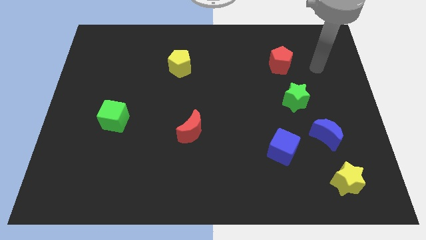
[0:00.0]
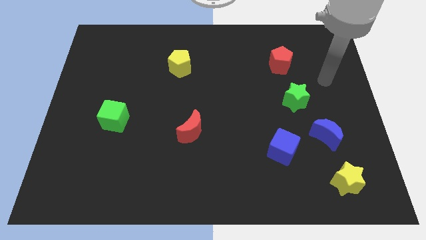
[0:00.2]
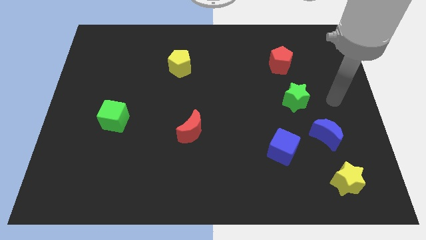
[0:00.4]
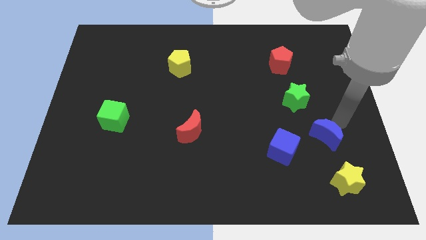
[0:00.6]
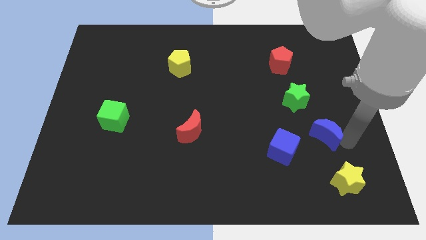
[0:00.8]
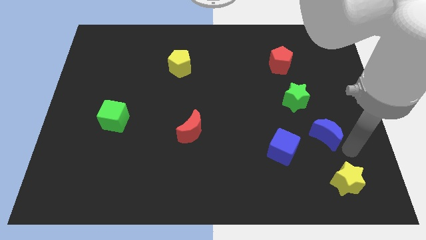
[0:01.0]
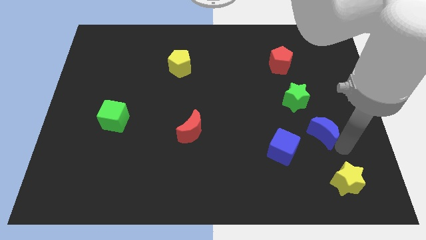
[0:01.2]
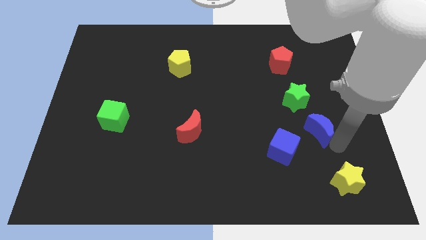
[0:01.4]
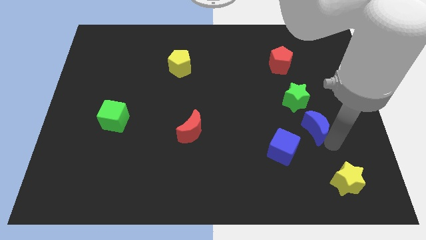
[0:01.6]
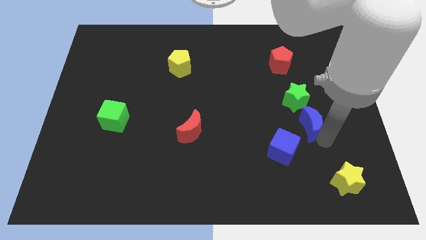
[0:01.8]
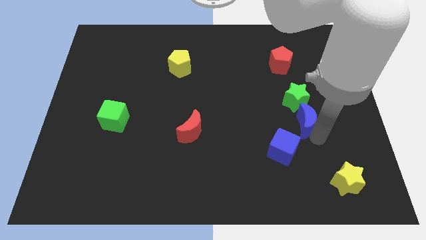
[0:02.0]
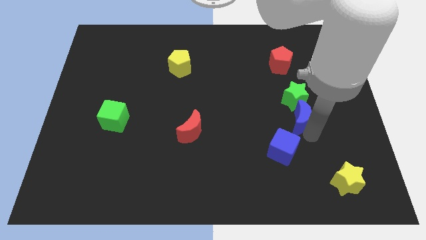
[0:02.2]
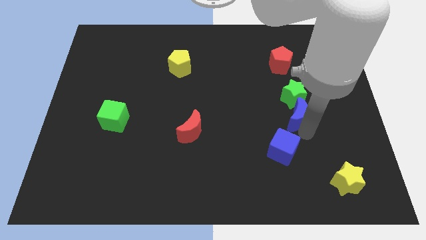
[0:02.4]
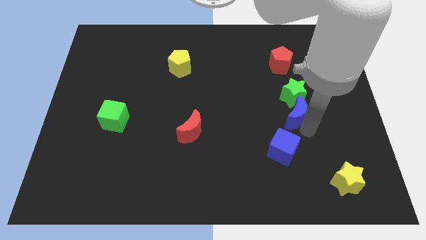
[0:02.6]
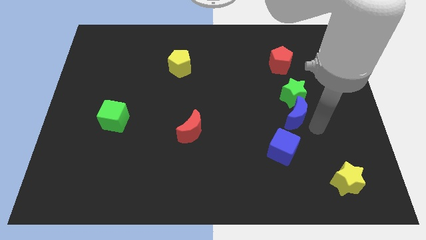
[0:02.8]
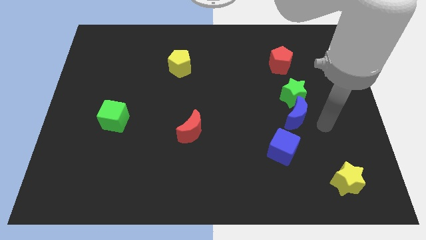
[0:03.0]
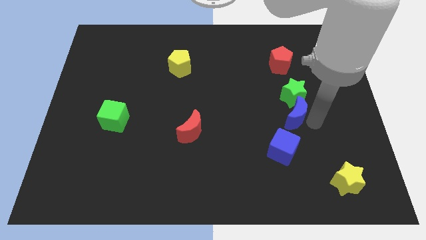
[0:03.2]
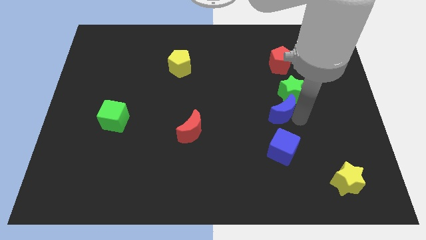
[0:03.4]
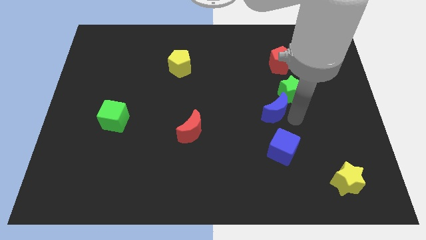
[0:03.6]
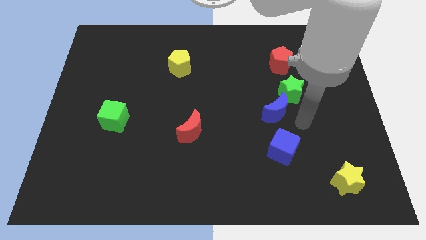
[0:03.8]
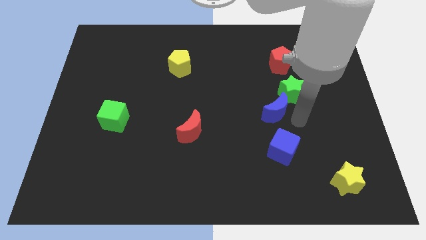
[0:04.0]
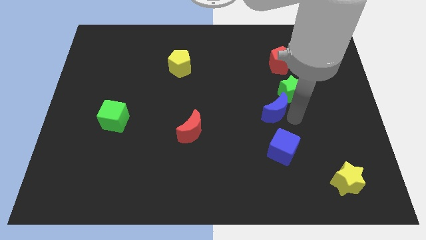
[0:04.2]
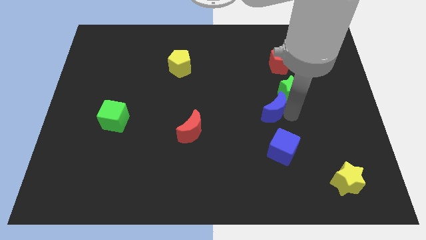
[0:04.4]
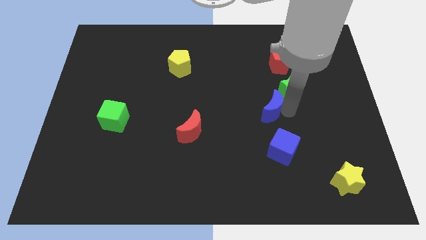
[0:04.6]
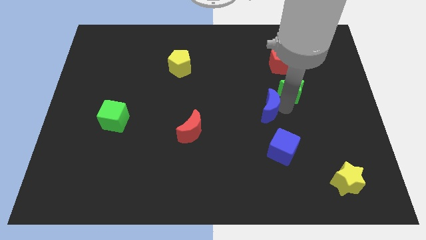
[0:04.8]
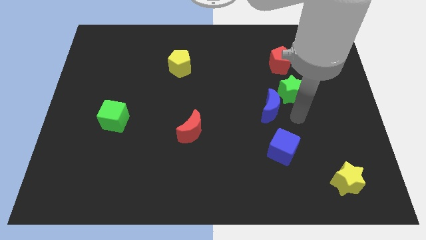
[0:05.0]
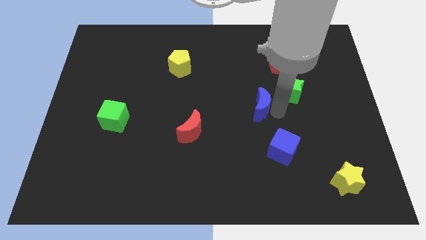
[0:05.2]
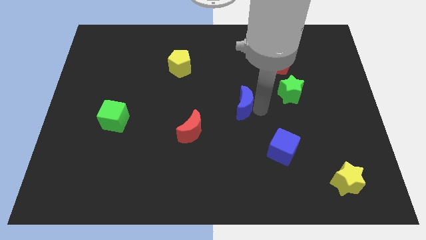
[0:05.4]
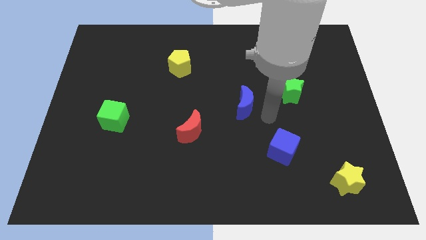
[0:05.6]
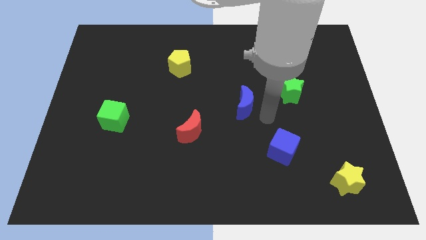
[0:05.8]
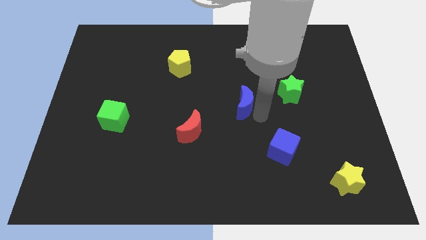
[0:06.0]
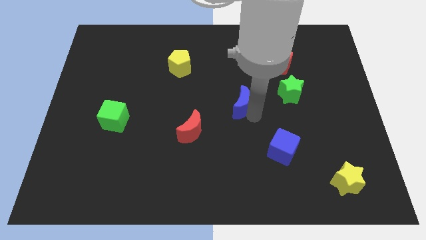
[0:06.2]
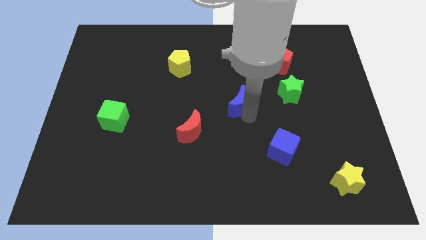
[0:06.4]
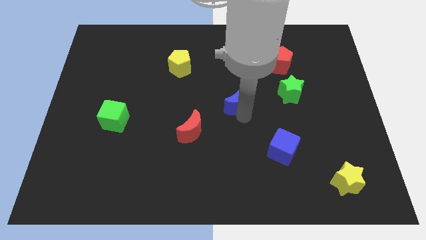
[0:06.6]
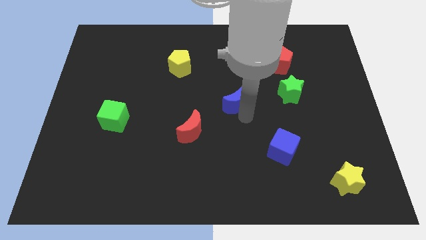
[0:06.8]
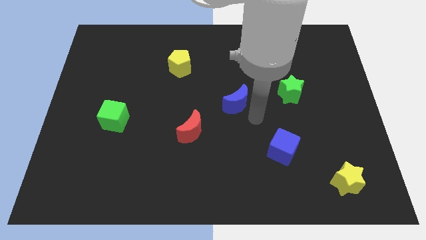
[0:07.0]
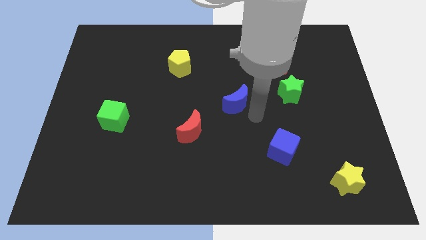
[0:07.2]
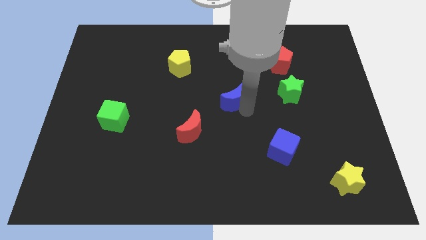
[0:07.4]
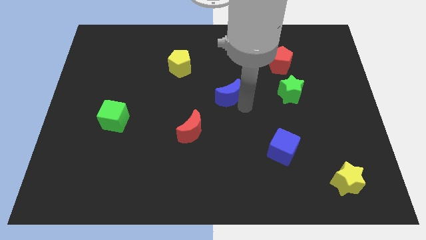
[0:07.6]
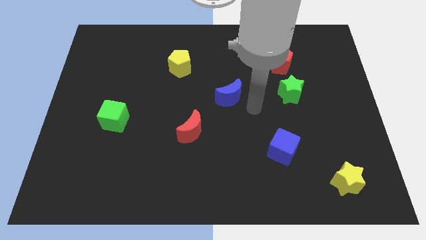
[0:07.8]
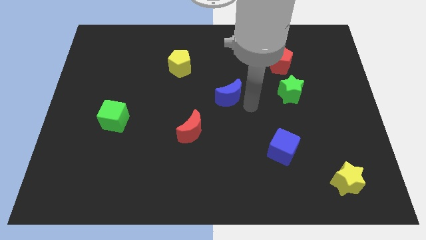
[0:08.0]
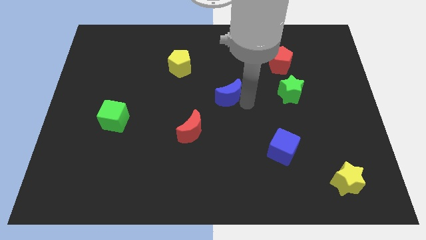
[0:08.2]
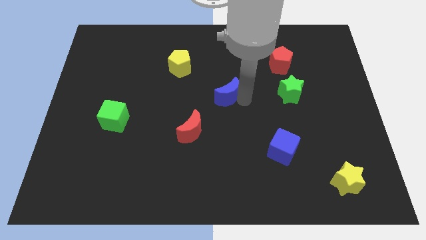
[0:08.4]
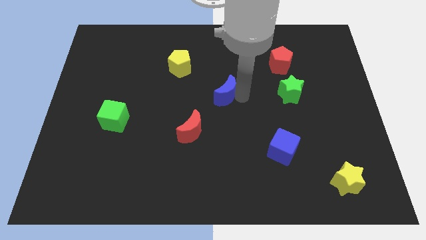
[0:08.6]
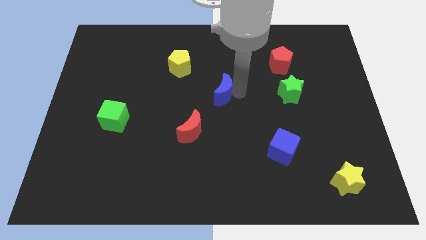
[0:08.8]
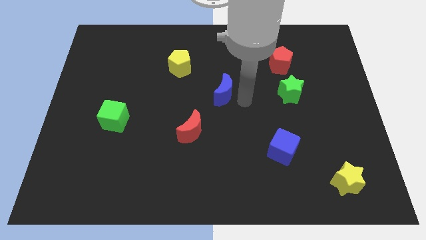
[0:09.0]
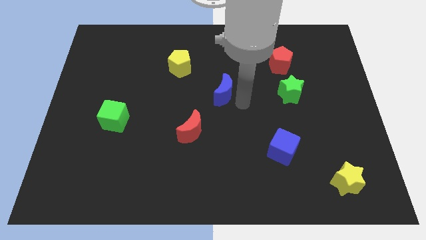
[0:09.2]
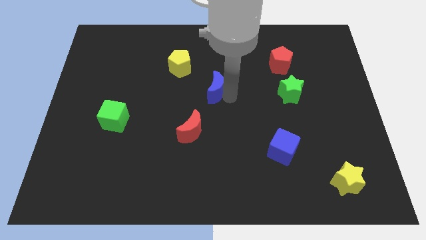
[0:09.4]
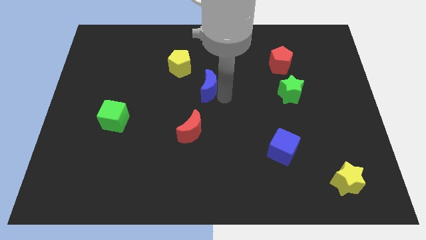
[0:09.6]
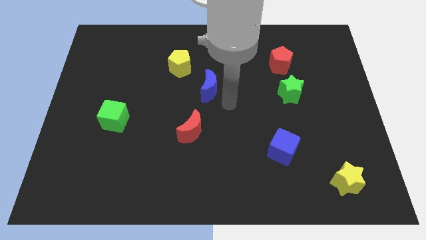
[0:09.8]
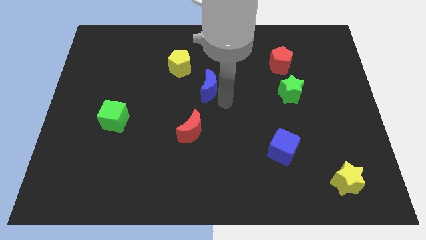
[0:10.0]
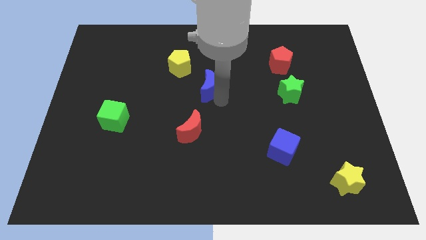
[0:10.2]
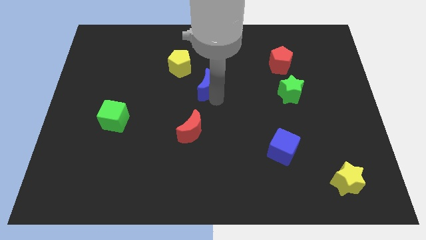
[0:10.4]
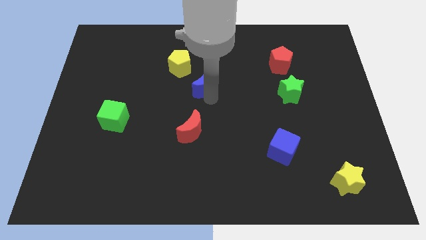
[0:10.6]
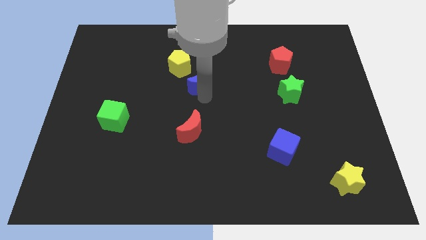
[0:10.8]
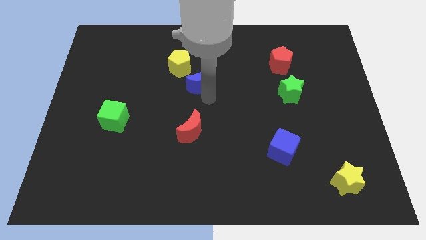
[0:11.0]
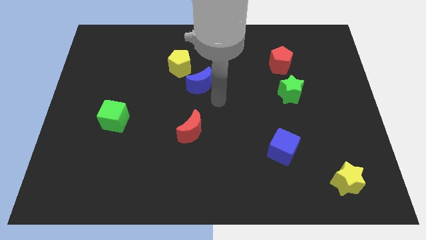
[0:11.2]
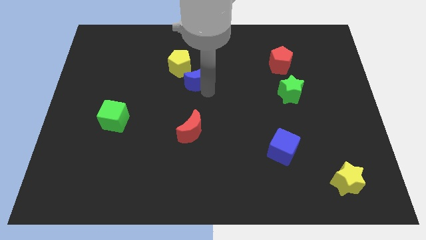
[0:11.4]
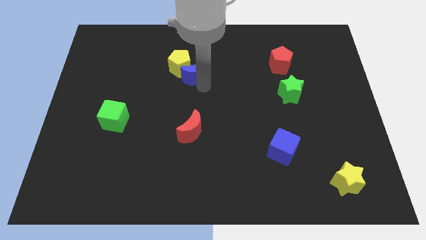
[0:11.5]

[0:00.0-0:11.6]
push the blue moon close to the yellow pentagon

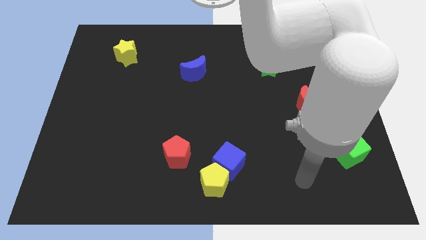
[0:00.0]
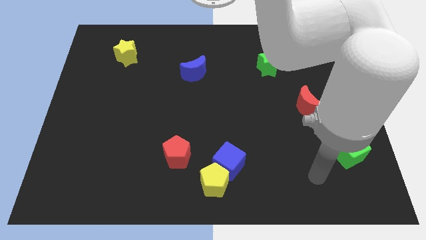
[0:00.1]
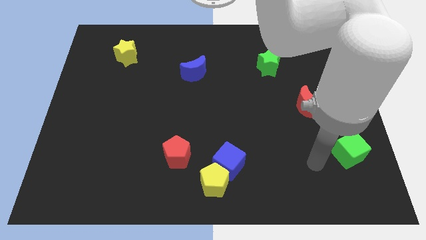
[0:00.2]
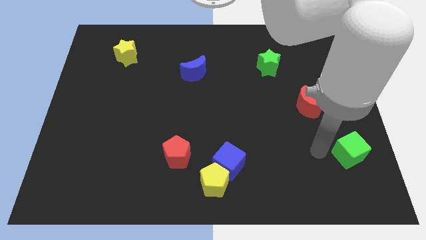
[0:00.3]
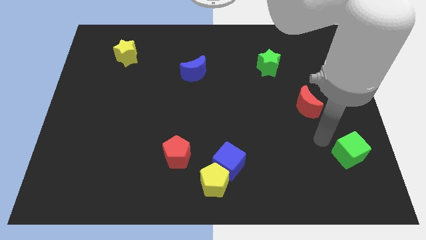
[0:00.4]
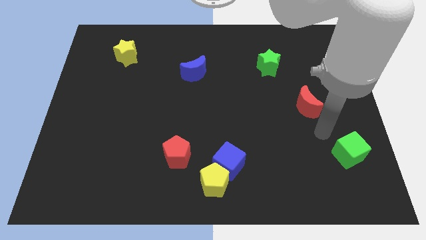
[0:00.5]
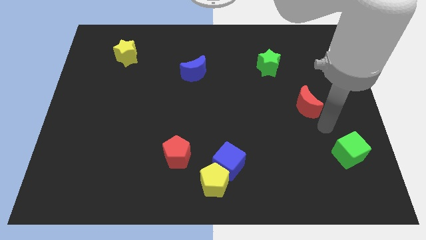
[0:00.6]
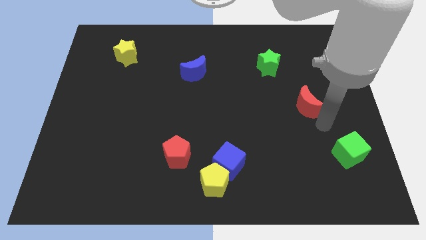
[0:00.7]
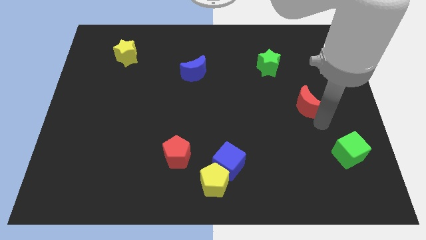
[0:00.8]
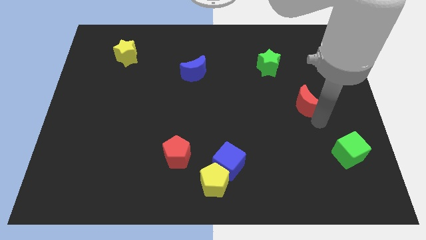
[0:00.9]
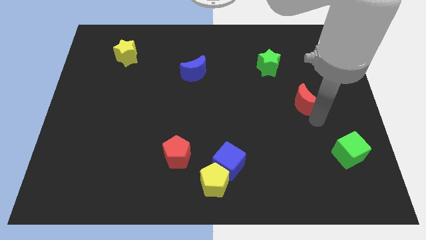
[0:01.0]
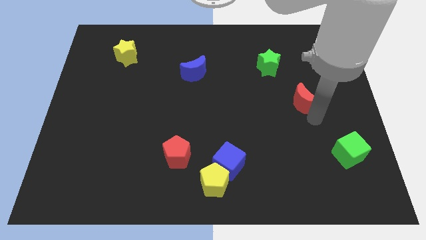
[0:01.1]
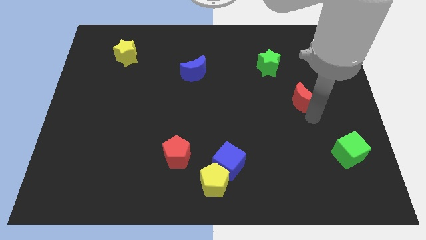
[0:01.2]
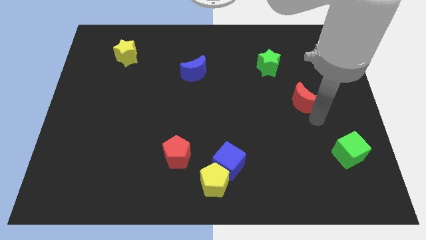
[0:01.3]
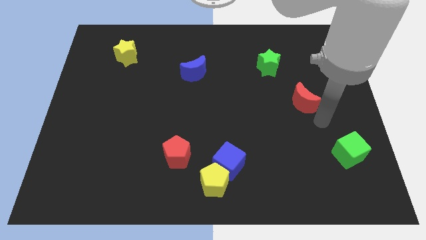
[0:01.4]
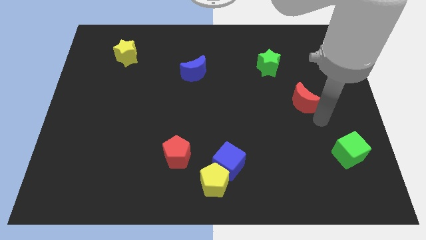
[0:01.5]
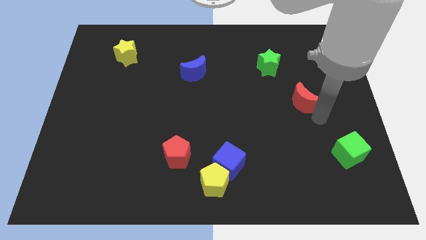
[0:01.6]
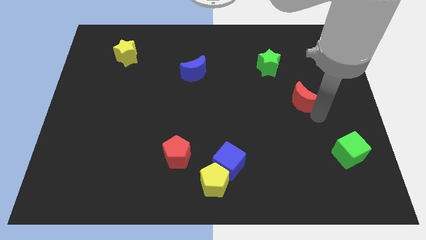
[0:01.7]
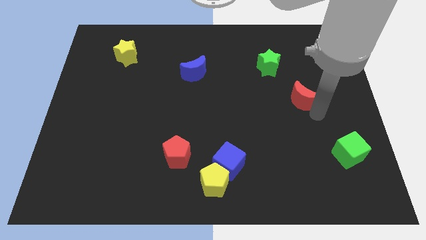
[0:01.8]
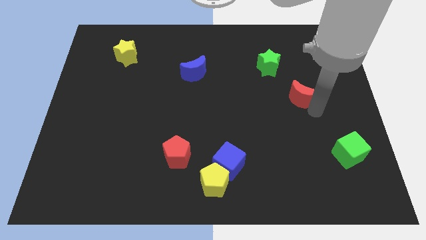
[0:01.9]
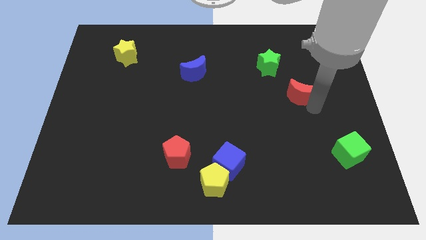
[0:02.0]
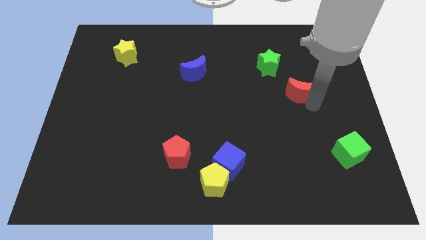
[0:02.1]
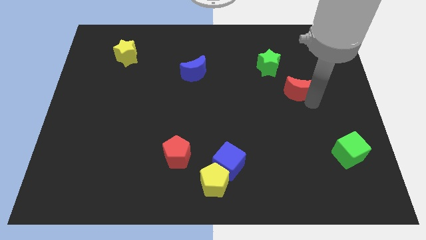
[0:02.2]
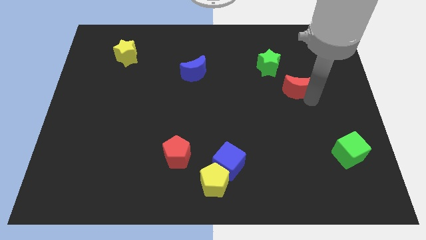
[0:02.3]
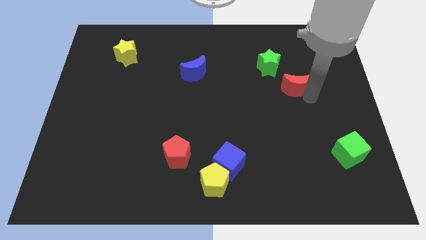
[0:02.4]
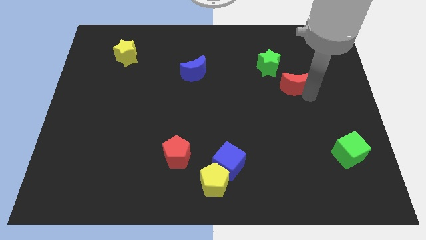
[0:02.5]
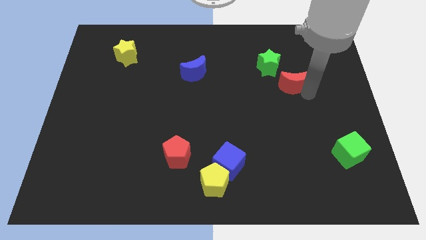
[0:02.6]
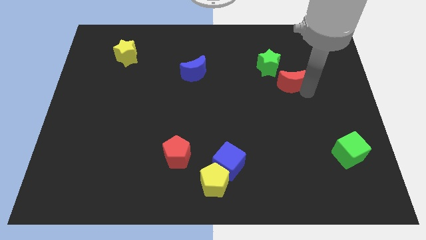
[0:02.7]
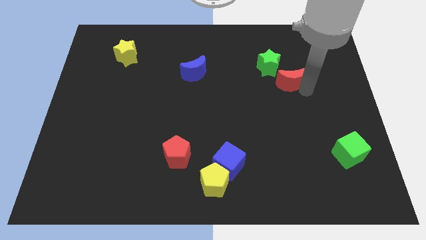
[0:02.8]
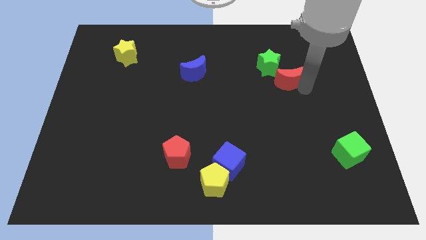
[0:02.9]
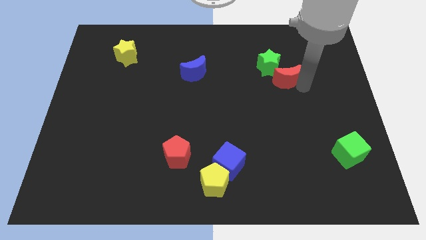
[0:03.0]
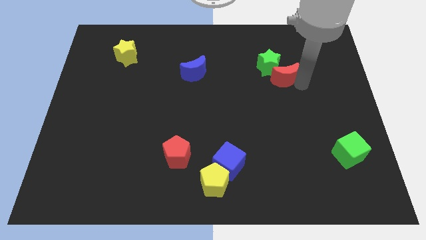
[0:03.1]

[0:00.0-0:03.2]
push the red moon towards the green star
